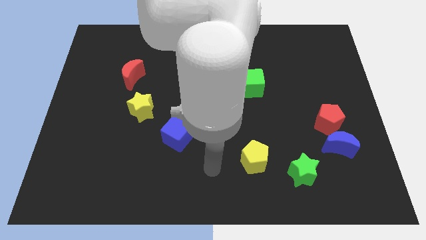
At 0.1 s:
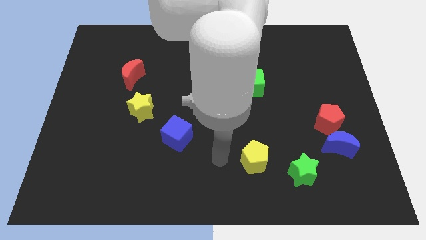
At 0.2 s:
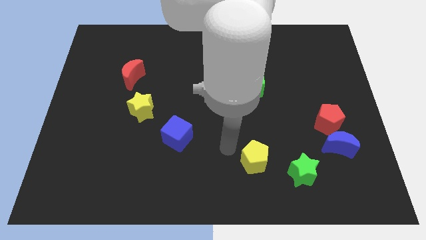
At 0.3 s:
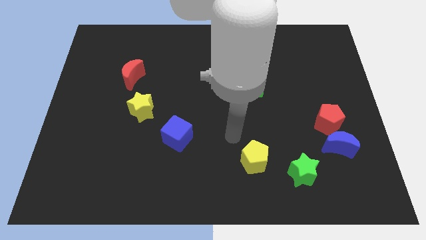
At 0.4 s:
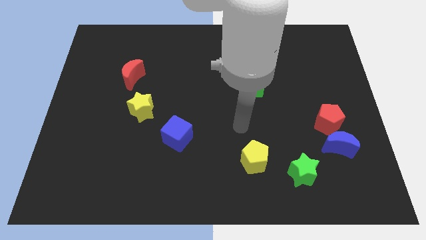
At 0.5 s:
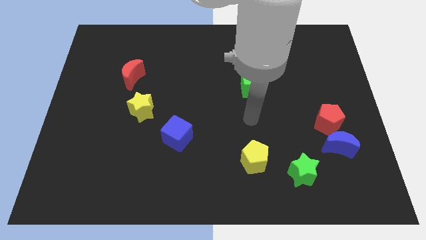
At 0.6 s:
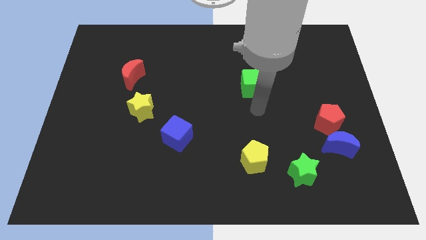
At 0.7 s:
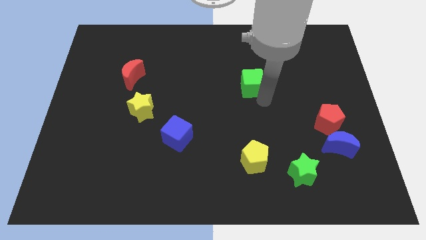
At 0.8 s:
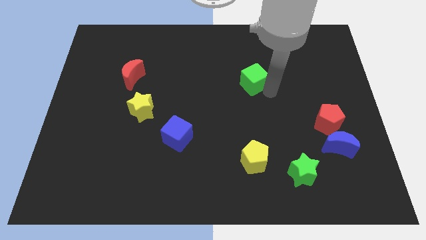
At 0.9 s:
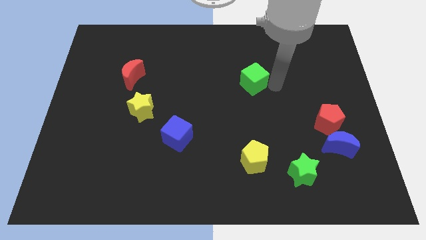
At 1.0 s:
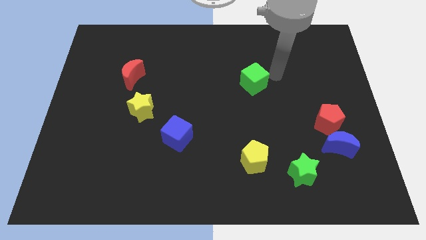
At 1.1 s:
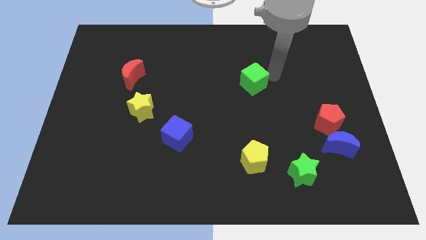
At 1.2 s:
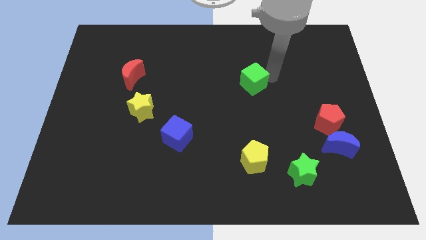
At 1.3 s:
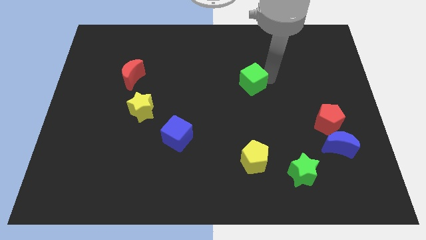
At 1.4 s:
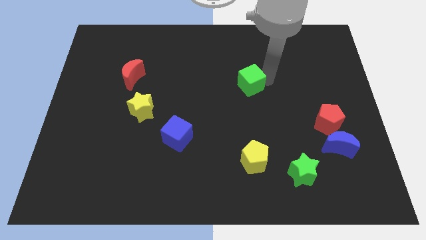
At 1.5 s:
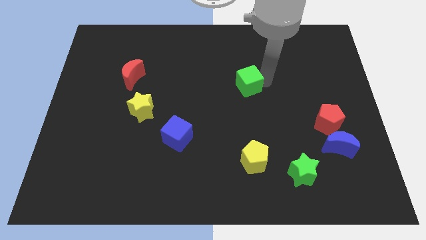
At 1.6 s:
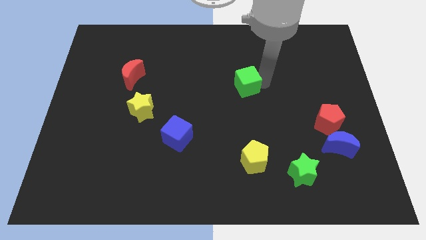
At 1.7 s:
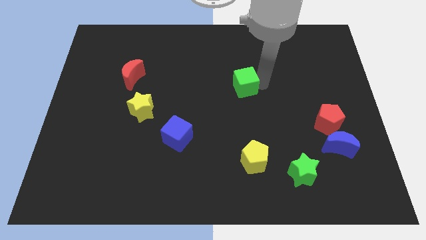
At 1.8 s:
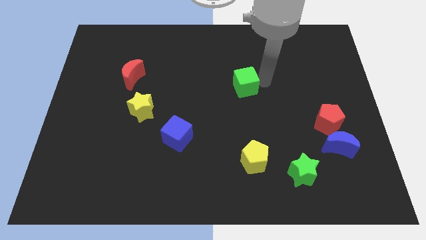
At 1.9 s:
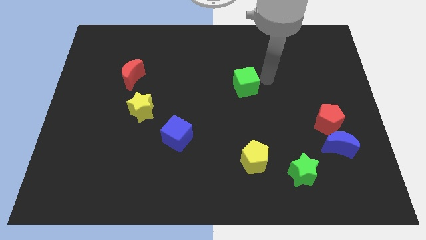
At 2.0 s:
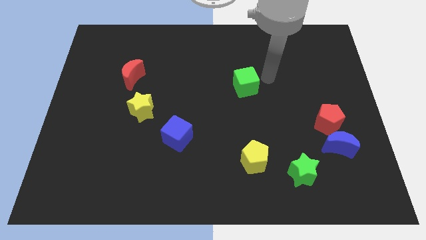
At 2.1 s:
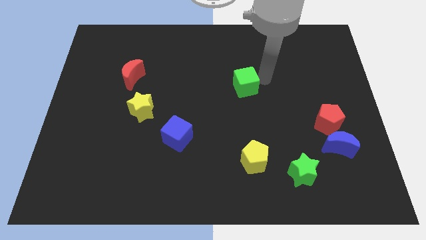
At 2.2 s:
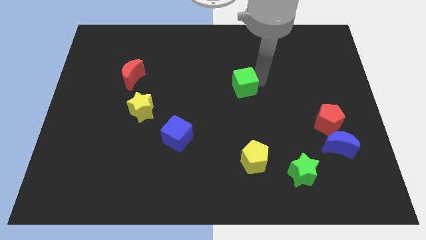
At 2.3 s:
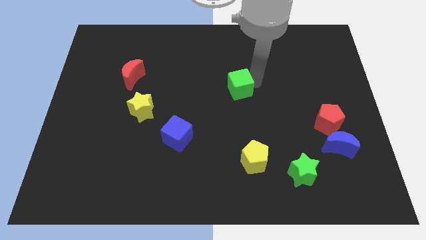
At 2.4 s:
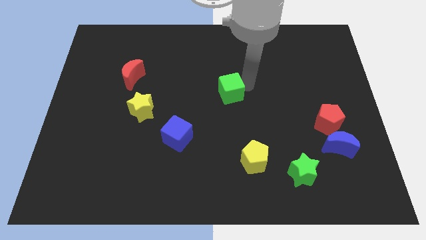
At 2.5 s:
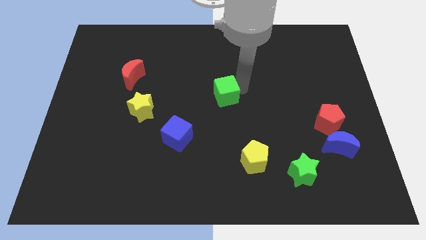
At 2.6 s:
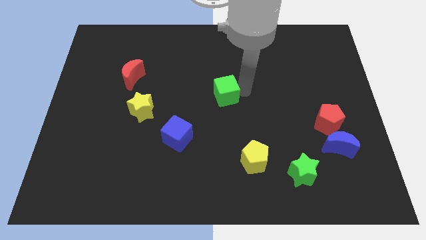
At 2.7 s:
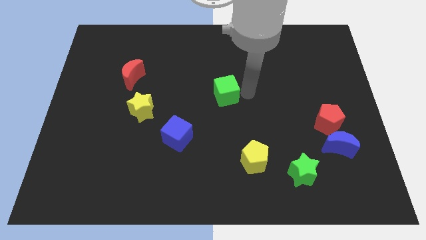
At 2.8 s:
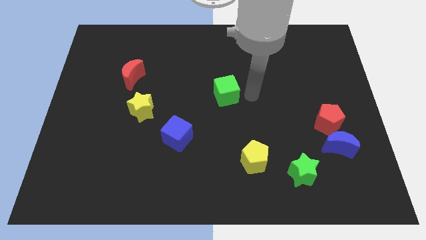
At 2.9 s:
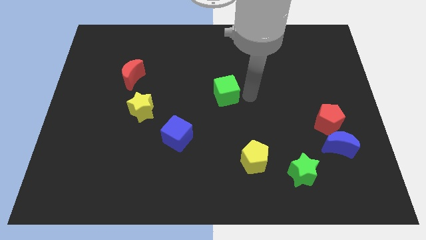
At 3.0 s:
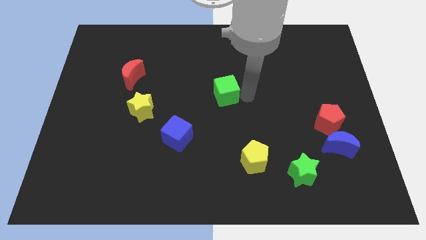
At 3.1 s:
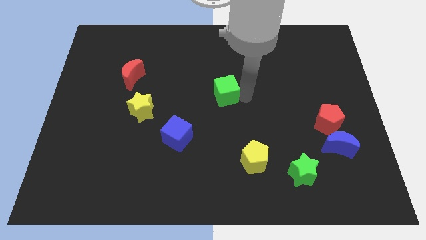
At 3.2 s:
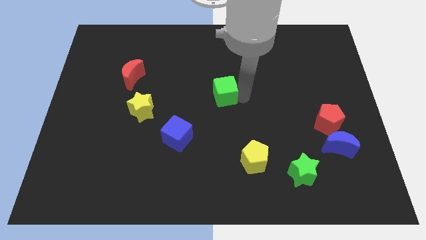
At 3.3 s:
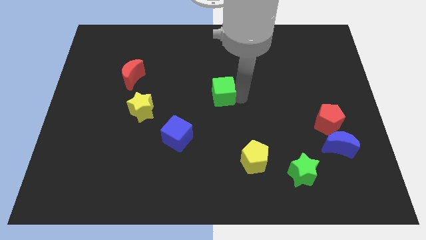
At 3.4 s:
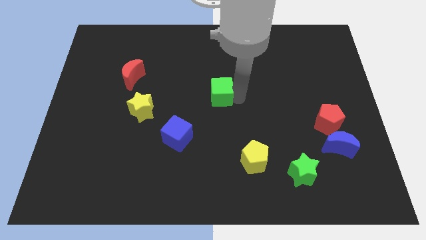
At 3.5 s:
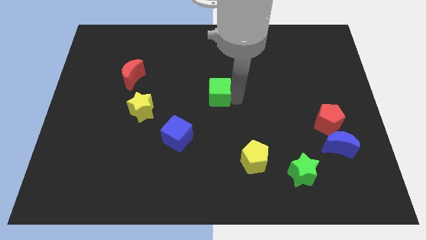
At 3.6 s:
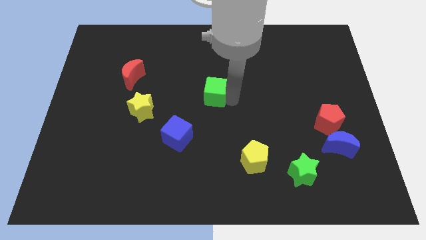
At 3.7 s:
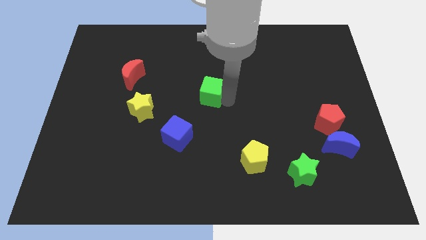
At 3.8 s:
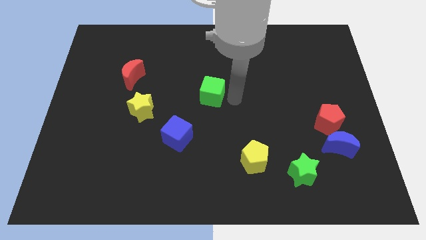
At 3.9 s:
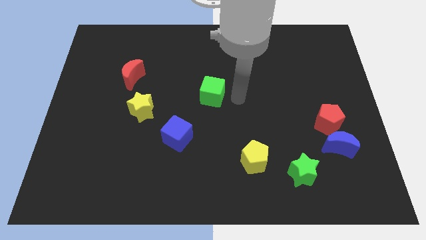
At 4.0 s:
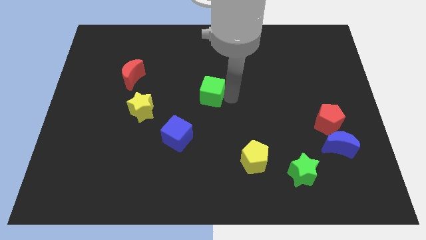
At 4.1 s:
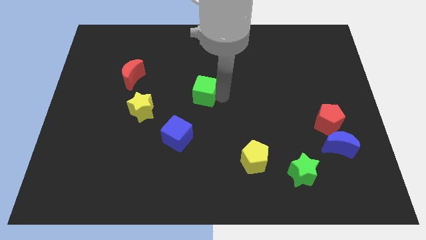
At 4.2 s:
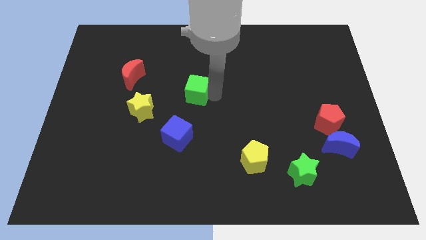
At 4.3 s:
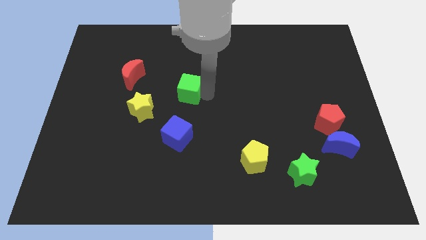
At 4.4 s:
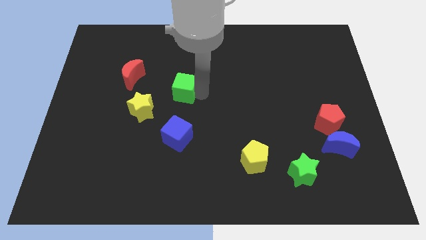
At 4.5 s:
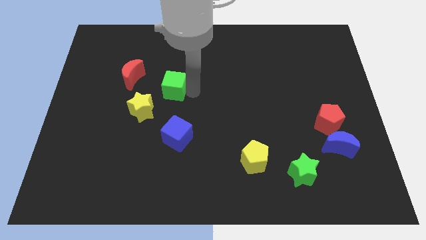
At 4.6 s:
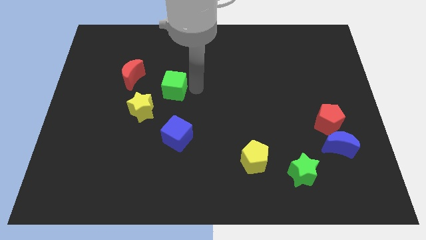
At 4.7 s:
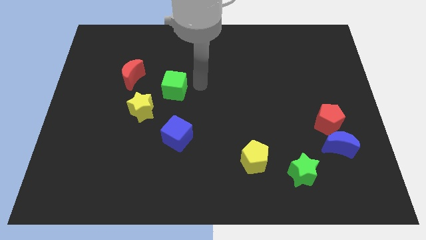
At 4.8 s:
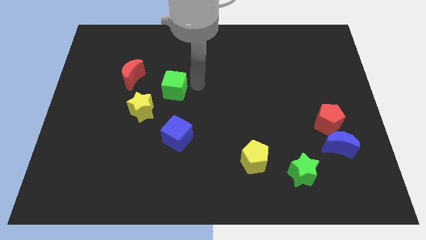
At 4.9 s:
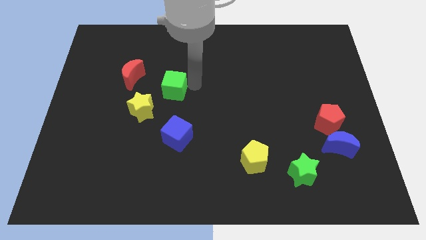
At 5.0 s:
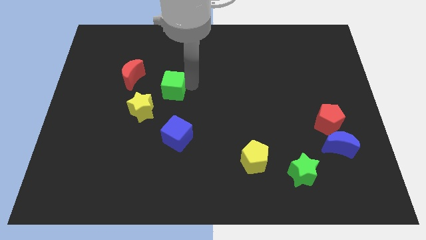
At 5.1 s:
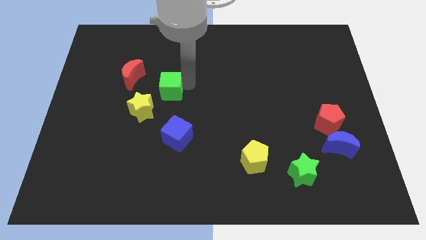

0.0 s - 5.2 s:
move the green cube to the left

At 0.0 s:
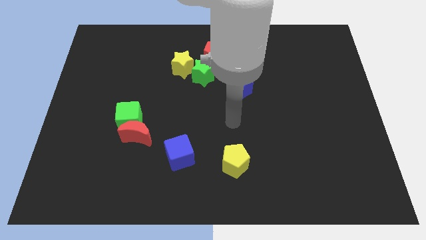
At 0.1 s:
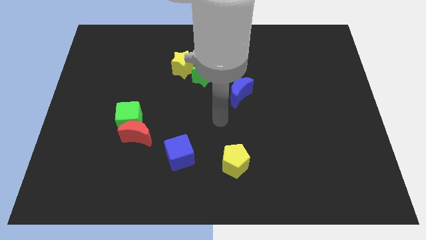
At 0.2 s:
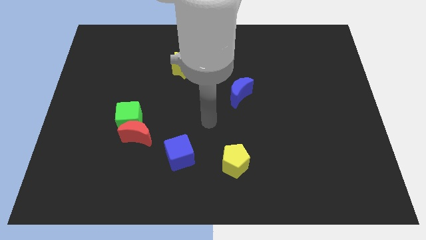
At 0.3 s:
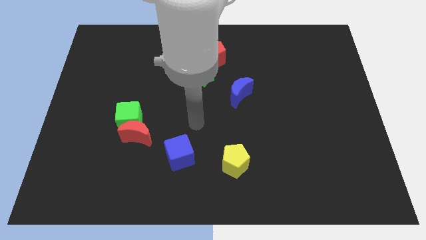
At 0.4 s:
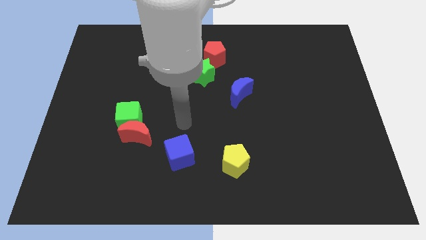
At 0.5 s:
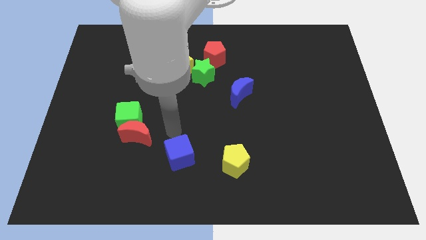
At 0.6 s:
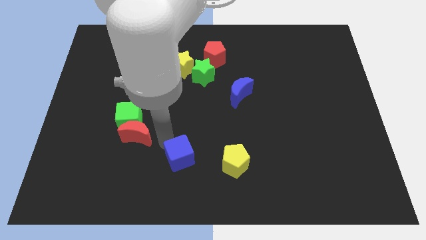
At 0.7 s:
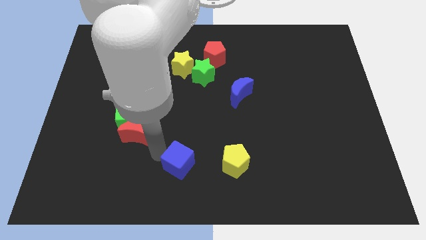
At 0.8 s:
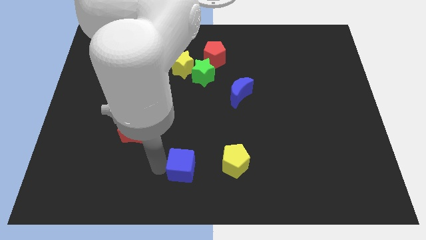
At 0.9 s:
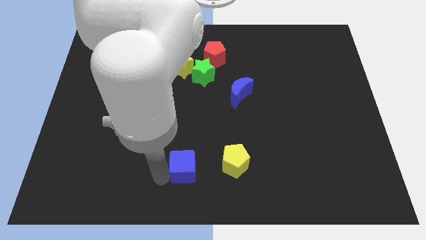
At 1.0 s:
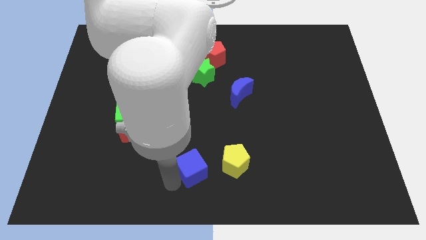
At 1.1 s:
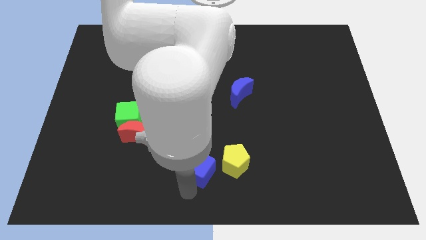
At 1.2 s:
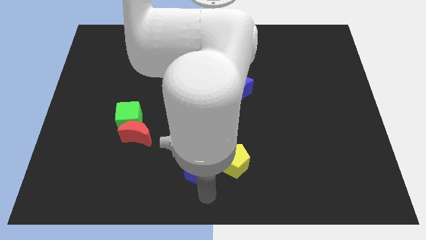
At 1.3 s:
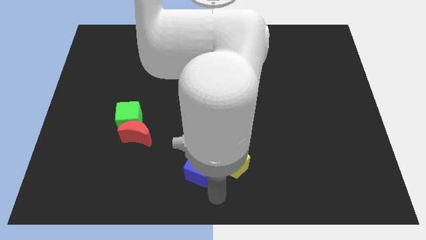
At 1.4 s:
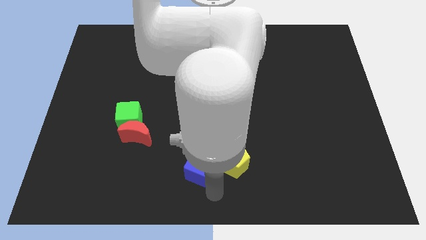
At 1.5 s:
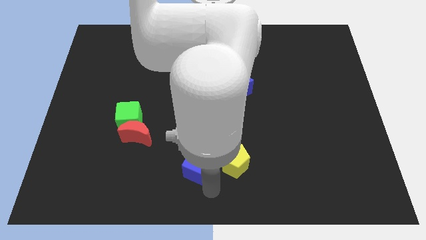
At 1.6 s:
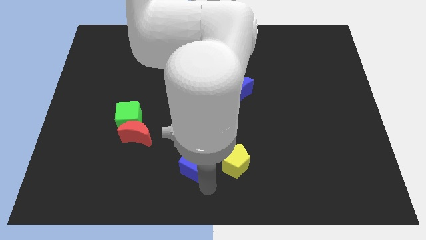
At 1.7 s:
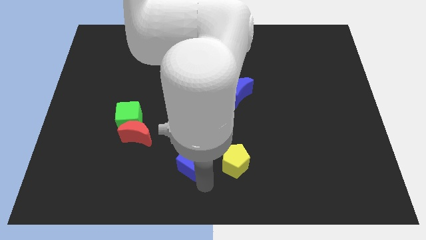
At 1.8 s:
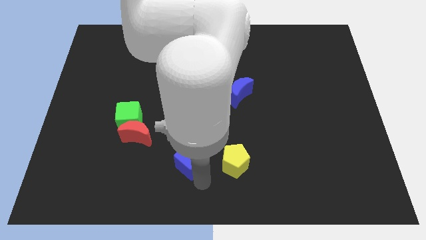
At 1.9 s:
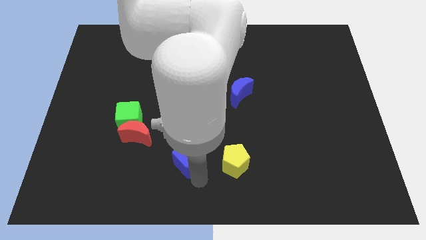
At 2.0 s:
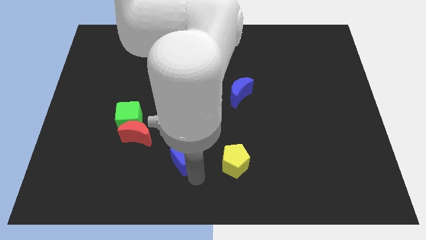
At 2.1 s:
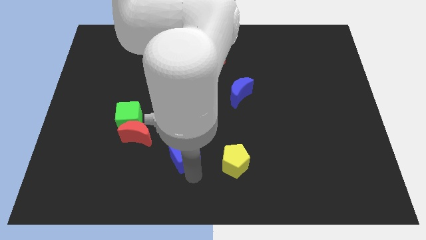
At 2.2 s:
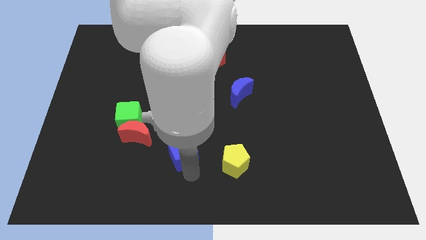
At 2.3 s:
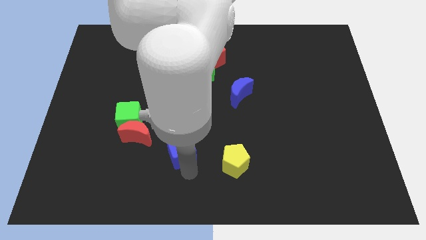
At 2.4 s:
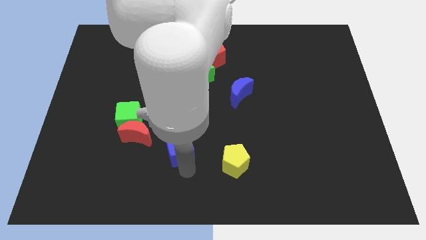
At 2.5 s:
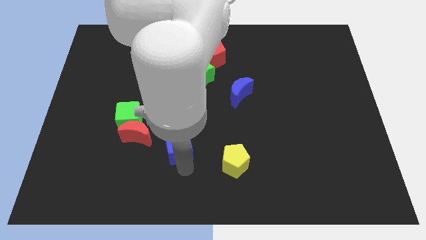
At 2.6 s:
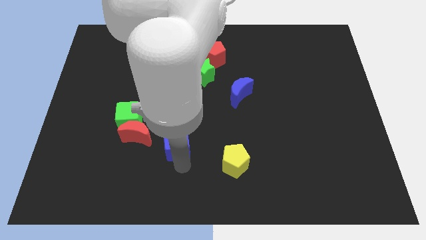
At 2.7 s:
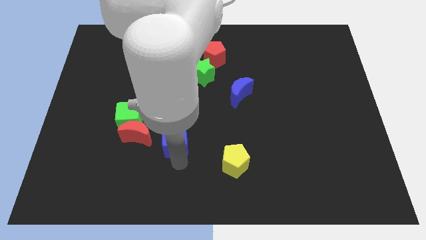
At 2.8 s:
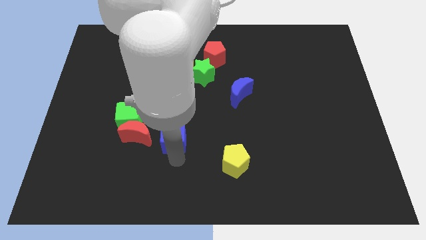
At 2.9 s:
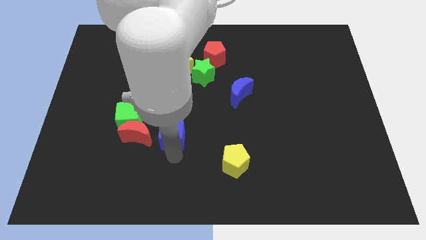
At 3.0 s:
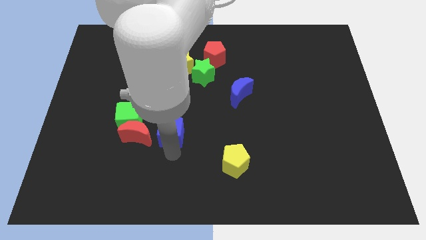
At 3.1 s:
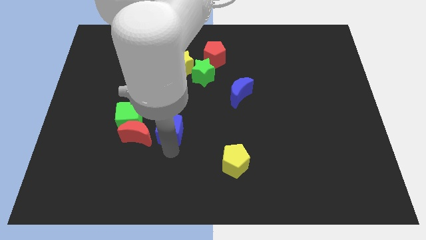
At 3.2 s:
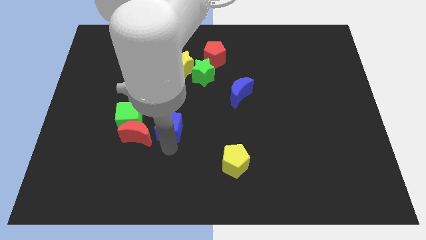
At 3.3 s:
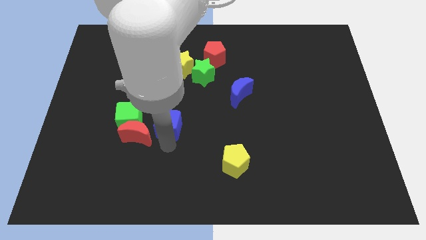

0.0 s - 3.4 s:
slightly push the blue cube up
